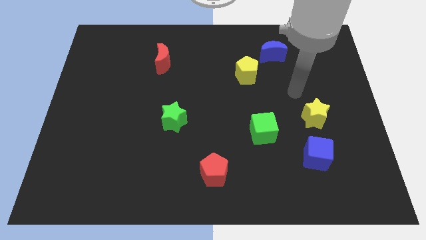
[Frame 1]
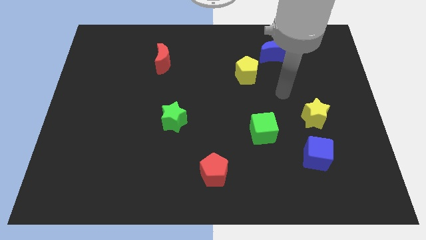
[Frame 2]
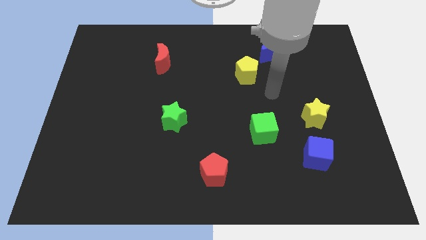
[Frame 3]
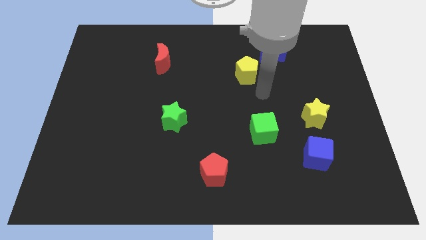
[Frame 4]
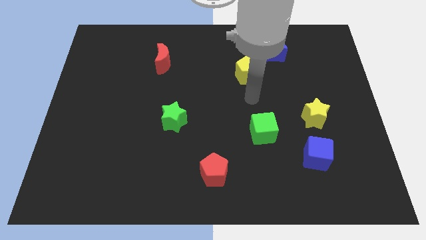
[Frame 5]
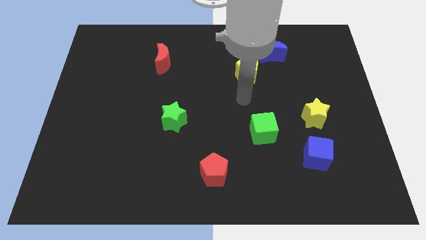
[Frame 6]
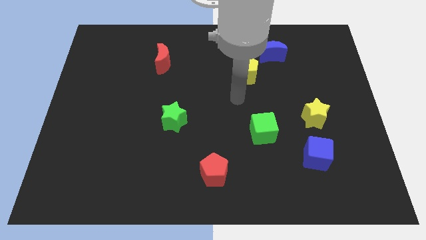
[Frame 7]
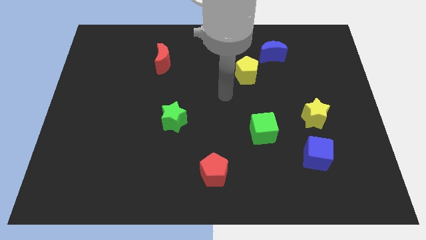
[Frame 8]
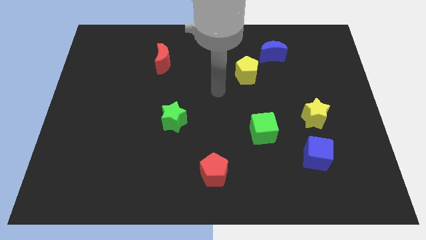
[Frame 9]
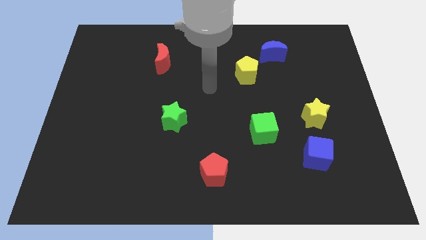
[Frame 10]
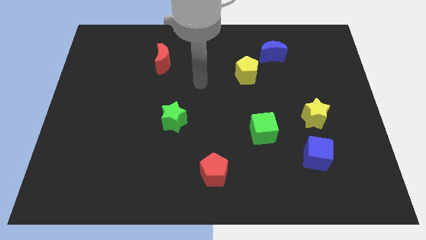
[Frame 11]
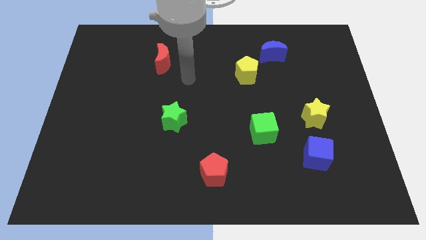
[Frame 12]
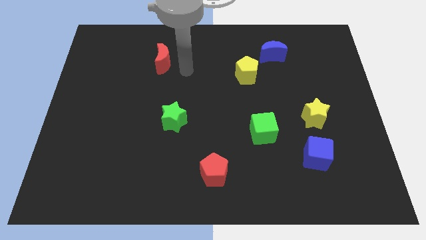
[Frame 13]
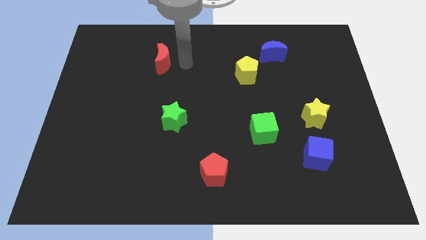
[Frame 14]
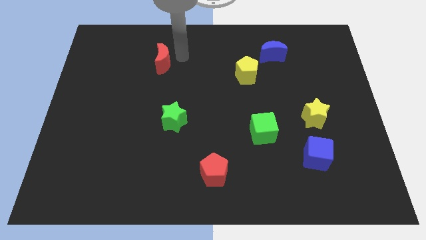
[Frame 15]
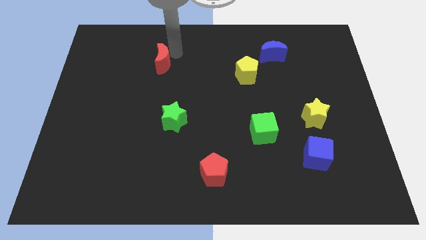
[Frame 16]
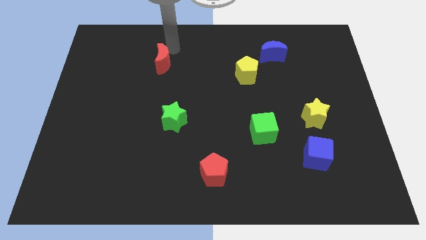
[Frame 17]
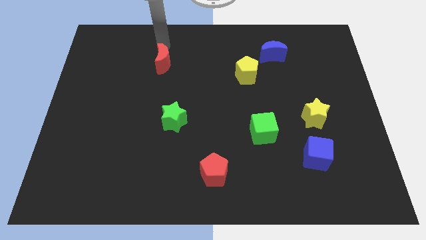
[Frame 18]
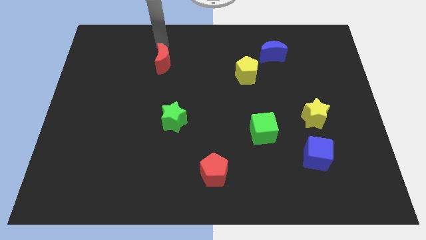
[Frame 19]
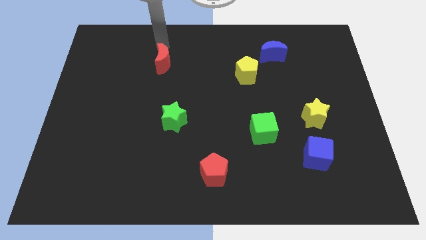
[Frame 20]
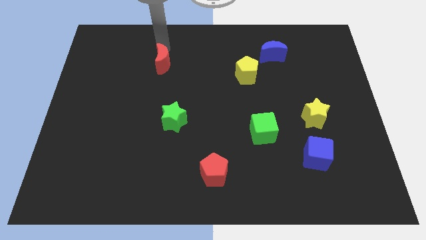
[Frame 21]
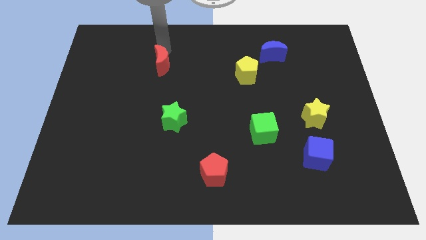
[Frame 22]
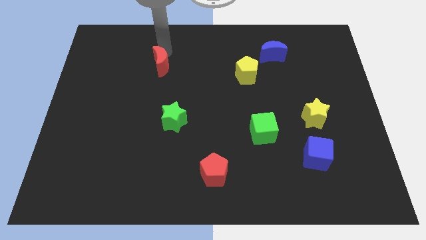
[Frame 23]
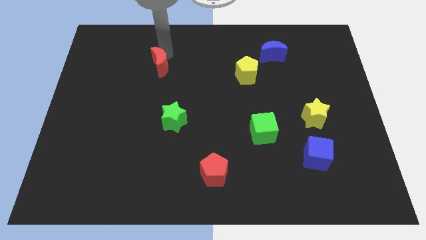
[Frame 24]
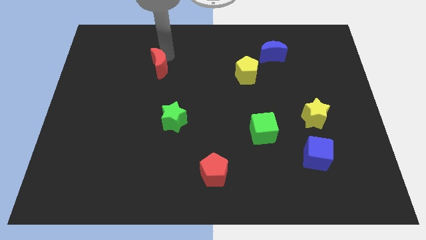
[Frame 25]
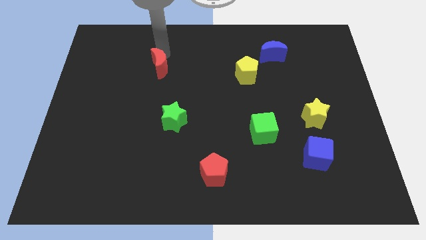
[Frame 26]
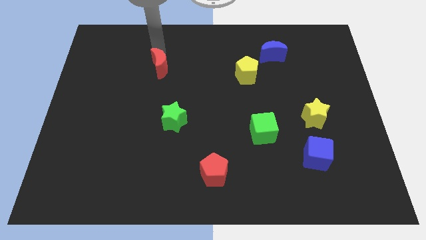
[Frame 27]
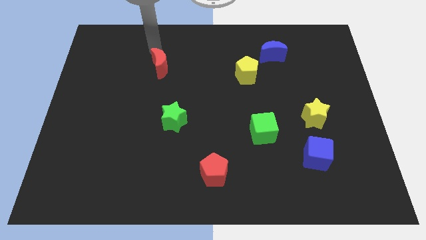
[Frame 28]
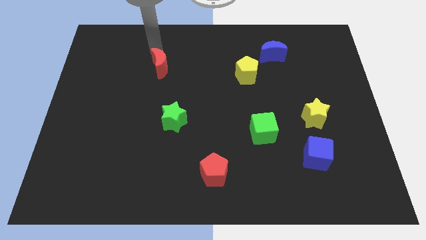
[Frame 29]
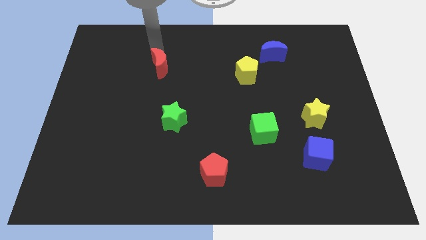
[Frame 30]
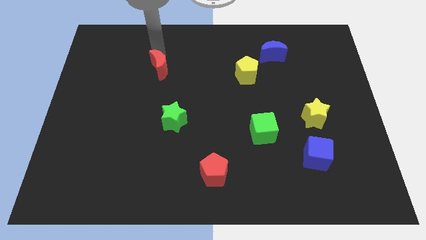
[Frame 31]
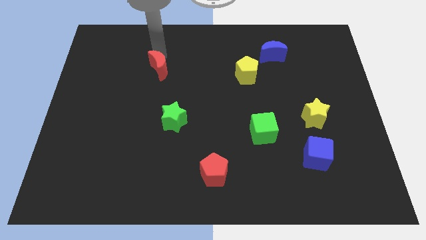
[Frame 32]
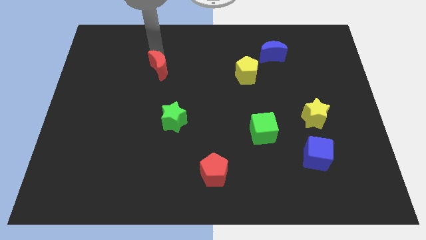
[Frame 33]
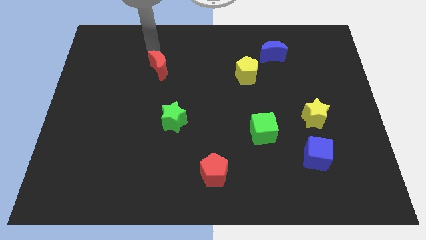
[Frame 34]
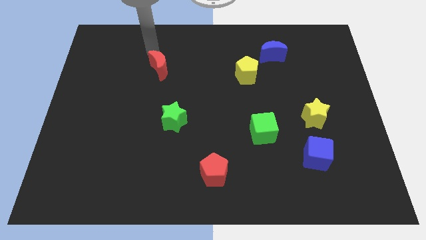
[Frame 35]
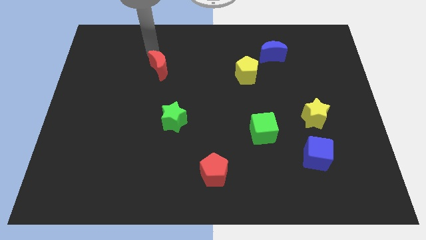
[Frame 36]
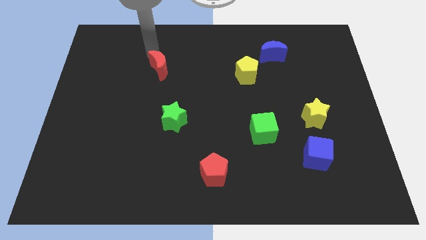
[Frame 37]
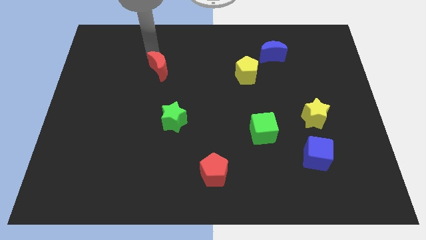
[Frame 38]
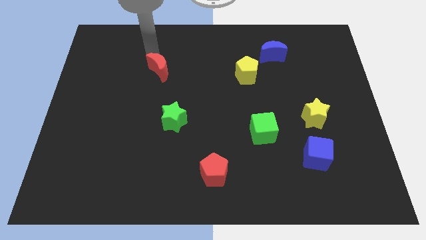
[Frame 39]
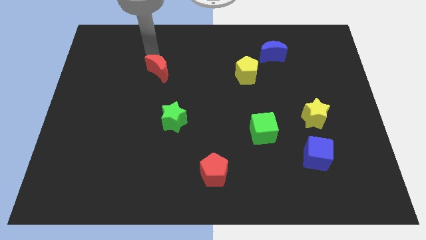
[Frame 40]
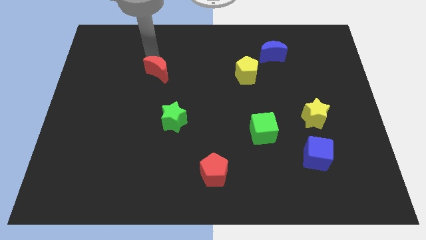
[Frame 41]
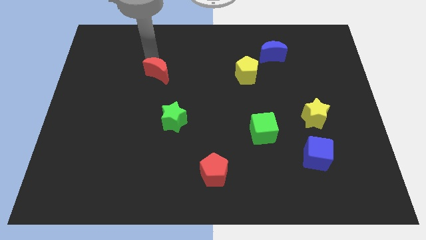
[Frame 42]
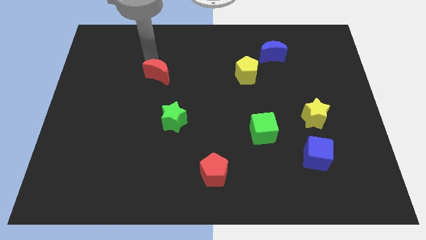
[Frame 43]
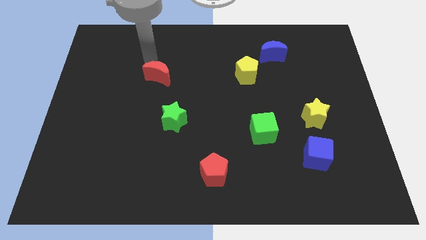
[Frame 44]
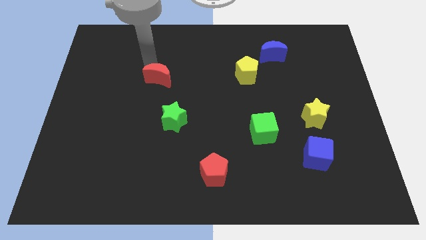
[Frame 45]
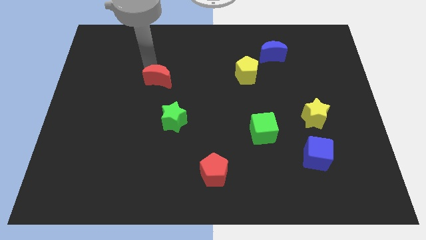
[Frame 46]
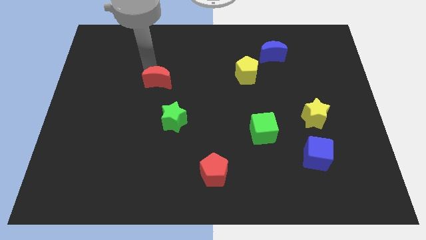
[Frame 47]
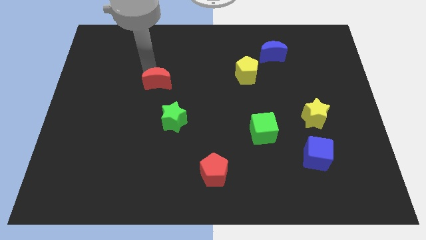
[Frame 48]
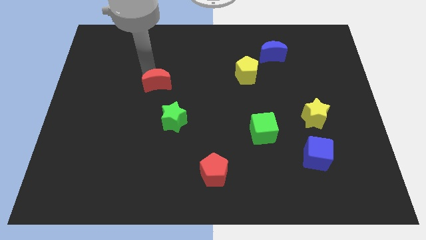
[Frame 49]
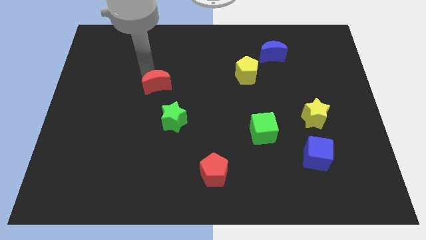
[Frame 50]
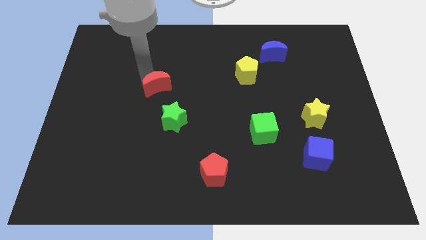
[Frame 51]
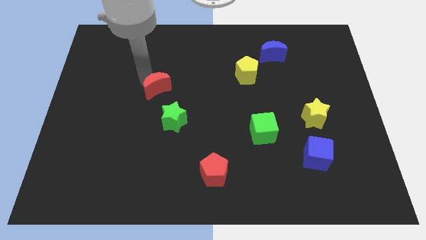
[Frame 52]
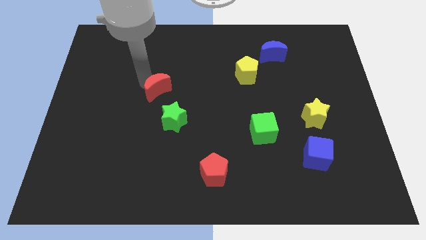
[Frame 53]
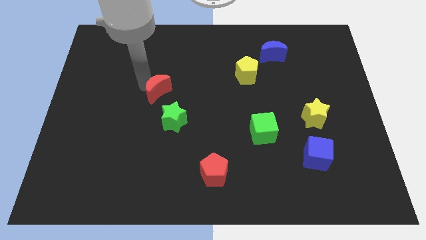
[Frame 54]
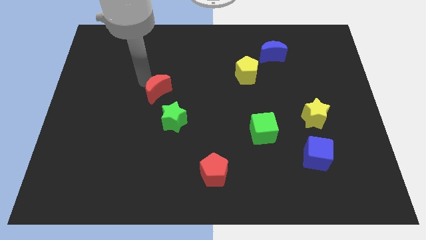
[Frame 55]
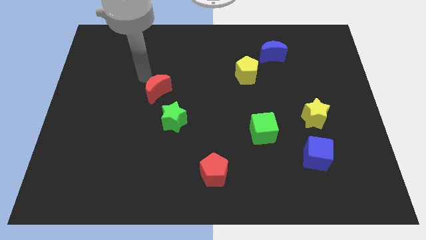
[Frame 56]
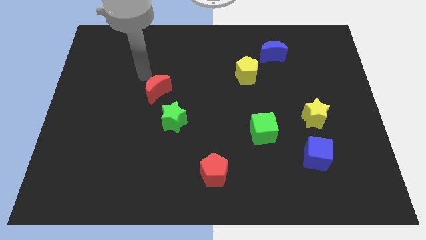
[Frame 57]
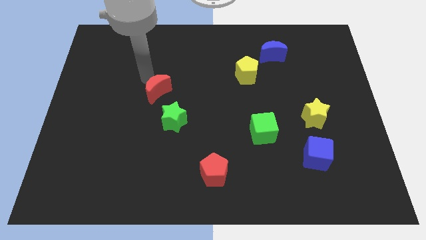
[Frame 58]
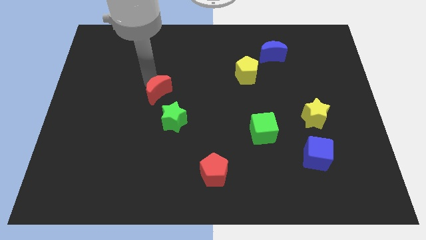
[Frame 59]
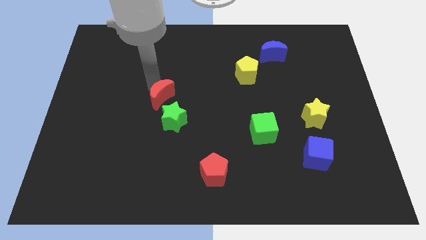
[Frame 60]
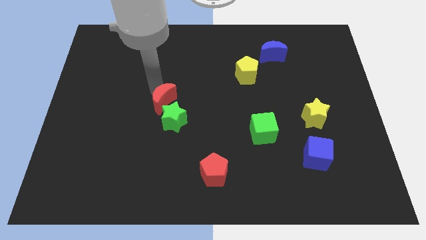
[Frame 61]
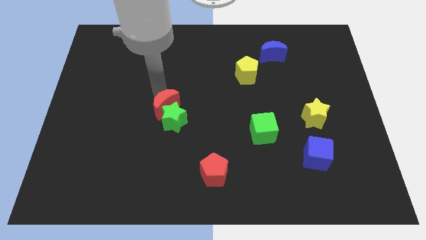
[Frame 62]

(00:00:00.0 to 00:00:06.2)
move the red moon towards the green star

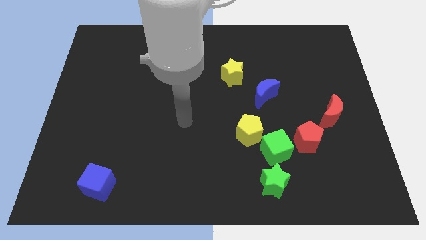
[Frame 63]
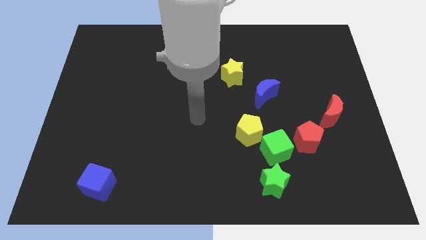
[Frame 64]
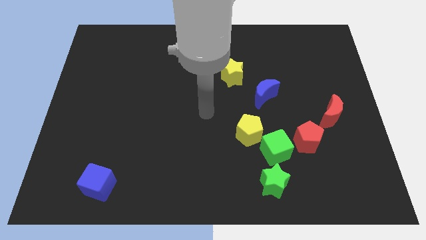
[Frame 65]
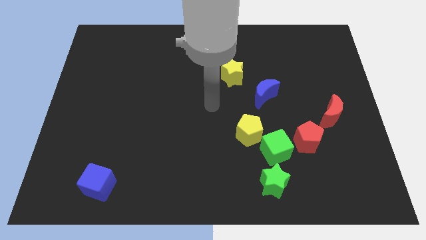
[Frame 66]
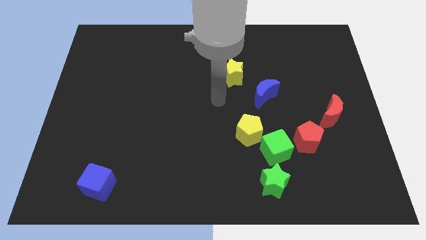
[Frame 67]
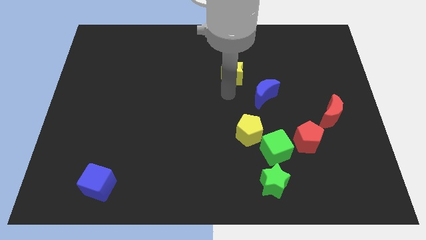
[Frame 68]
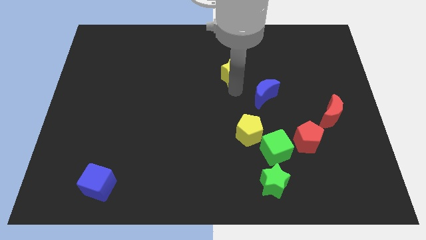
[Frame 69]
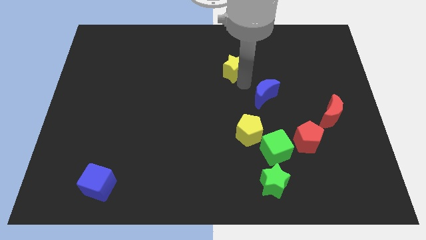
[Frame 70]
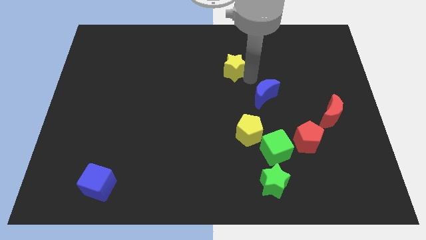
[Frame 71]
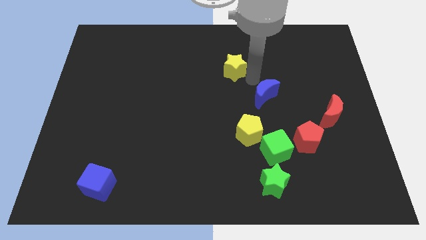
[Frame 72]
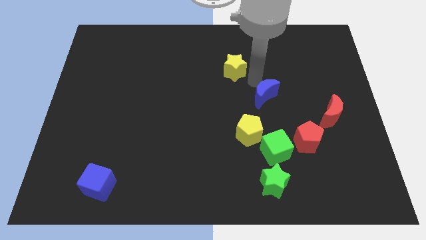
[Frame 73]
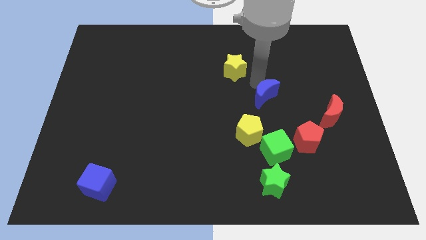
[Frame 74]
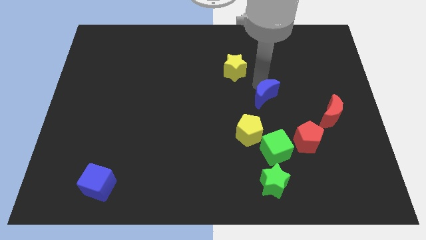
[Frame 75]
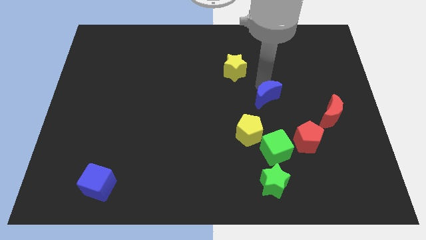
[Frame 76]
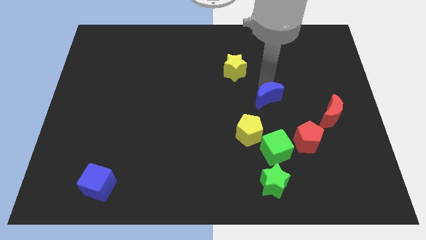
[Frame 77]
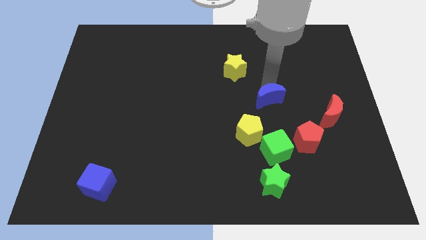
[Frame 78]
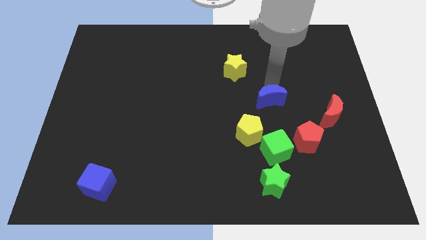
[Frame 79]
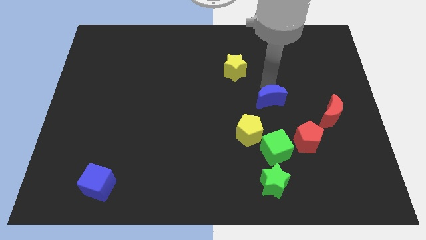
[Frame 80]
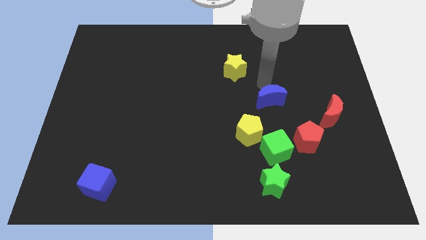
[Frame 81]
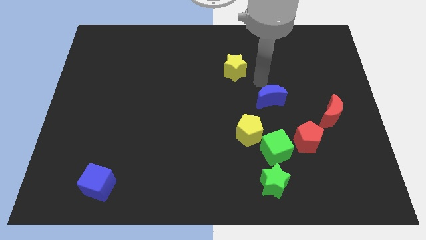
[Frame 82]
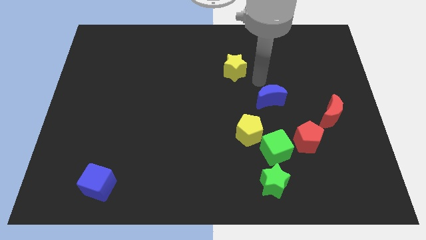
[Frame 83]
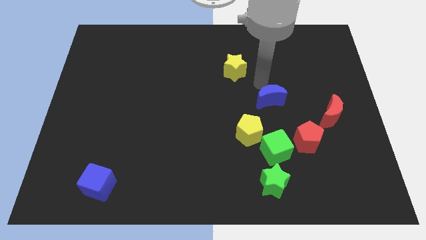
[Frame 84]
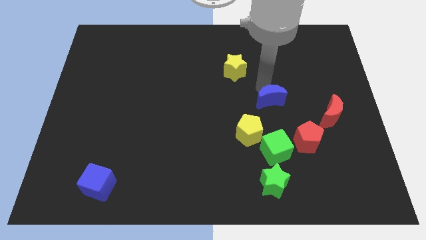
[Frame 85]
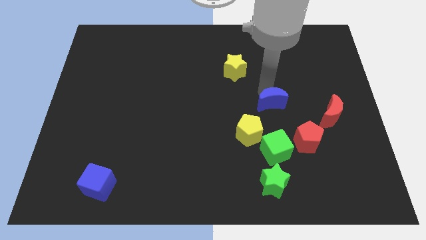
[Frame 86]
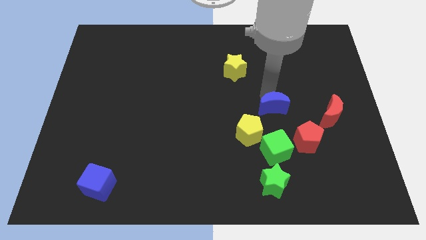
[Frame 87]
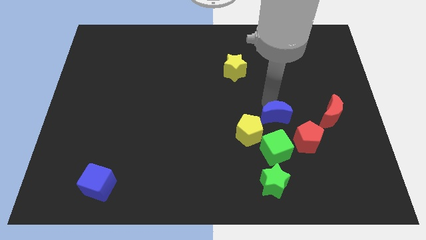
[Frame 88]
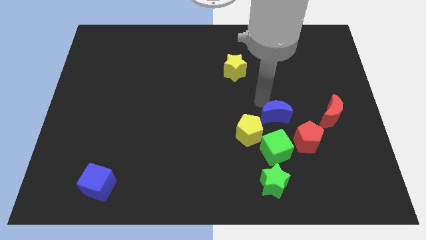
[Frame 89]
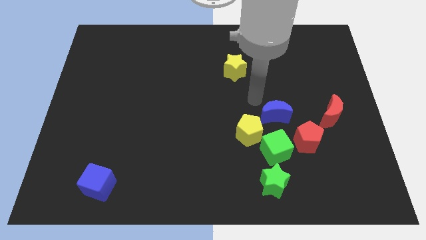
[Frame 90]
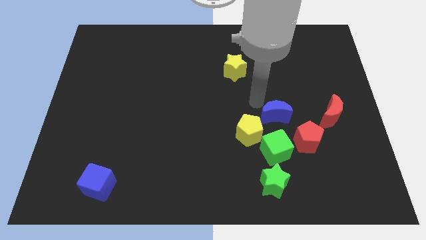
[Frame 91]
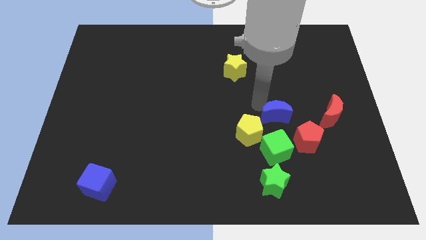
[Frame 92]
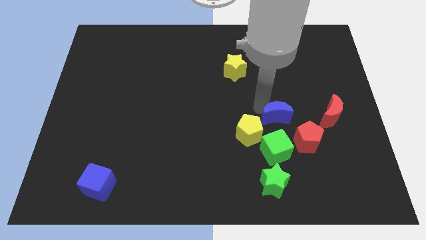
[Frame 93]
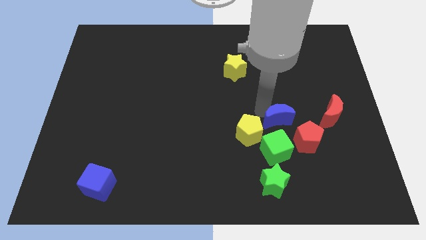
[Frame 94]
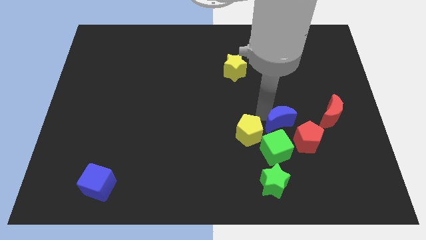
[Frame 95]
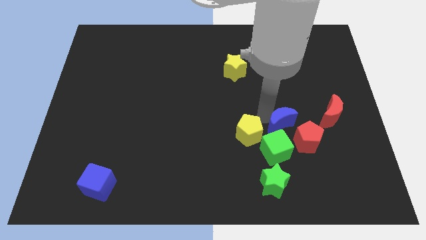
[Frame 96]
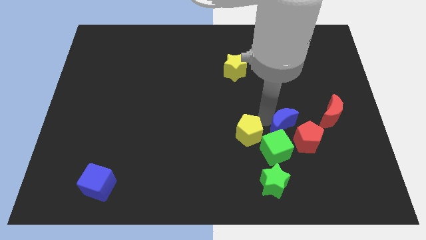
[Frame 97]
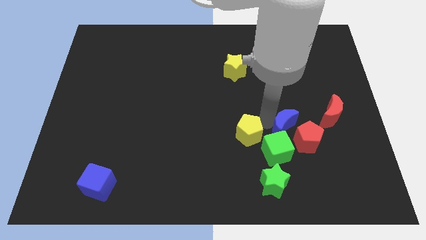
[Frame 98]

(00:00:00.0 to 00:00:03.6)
push the blue moon close to the red pentagon
